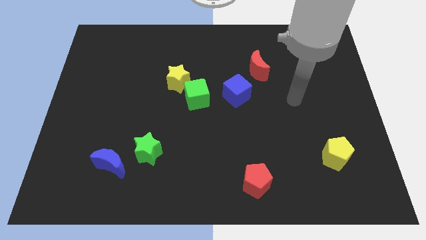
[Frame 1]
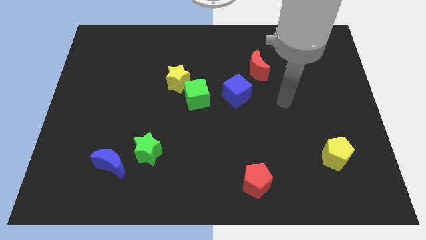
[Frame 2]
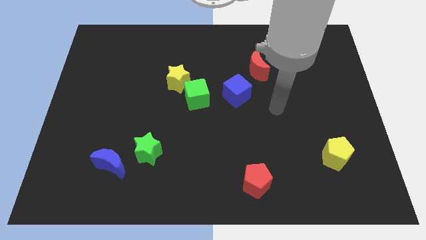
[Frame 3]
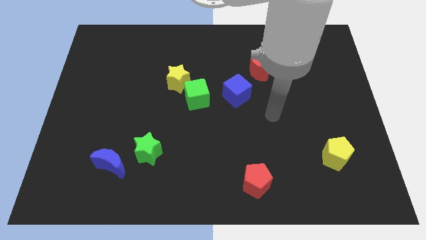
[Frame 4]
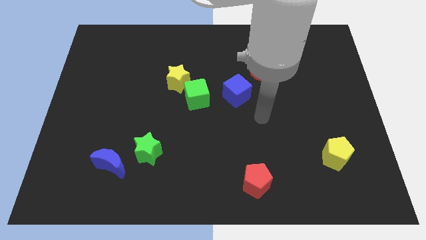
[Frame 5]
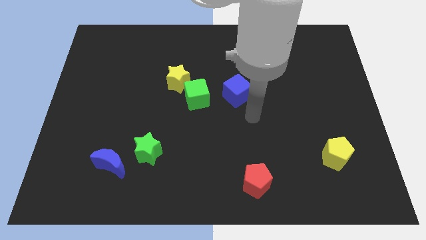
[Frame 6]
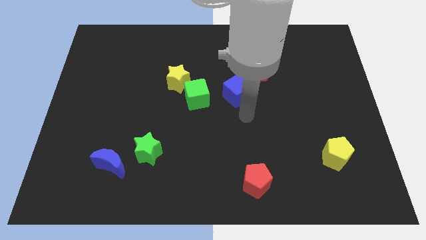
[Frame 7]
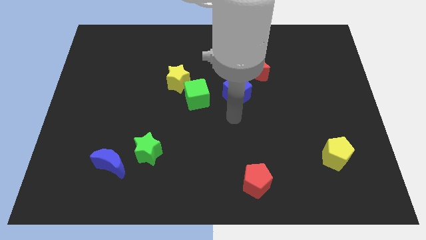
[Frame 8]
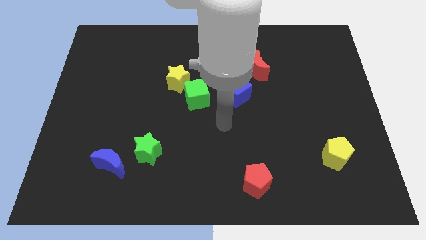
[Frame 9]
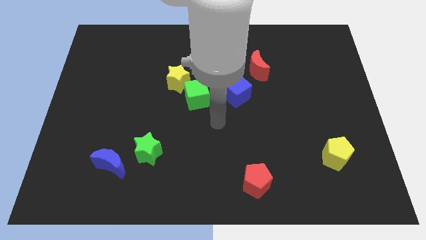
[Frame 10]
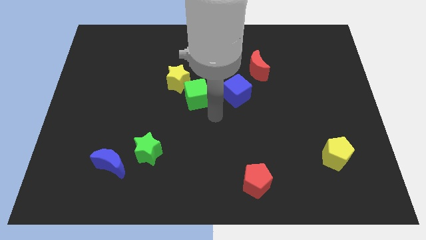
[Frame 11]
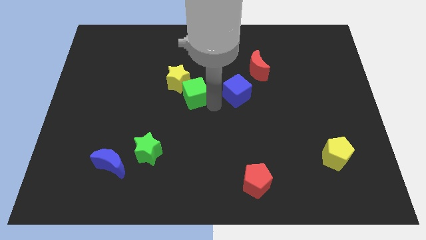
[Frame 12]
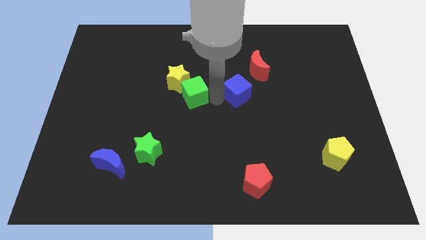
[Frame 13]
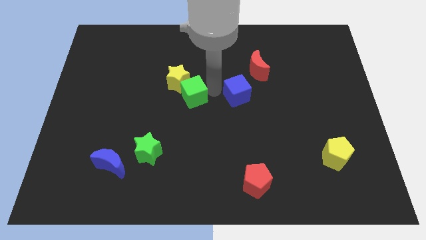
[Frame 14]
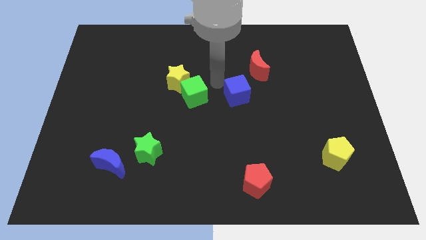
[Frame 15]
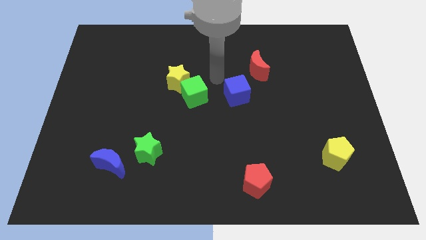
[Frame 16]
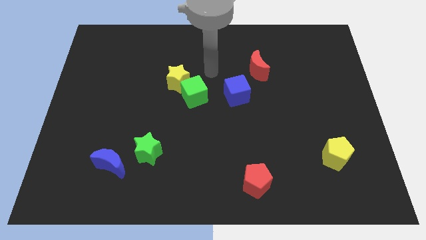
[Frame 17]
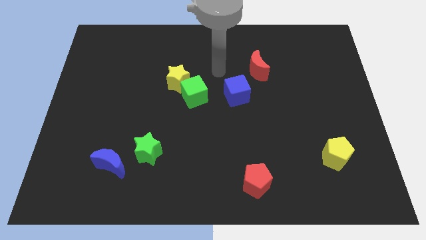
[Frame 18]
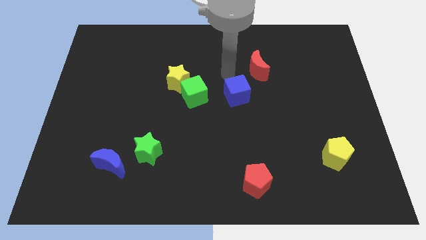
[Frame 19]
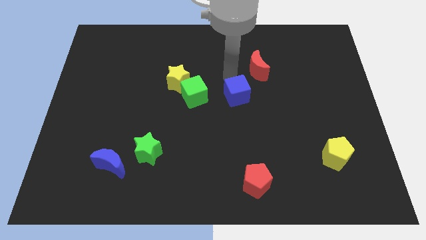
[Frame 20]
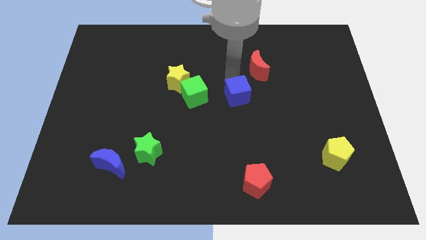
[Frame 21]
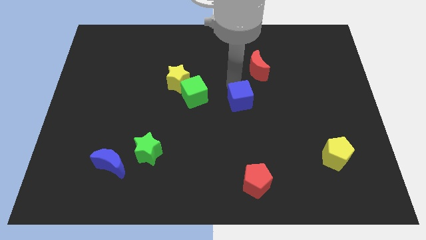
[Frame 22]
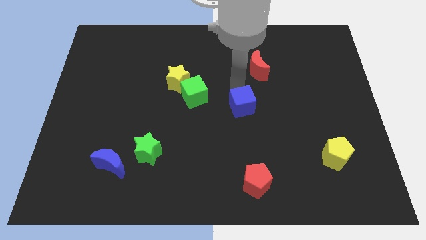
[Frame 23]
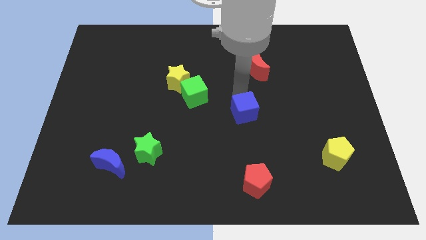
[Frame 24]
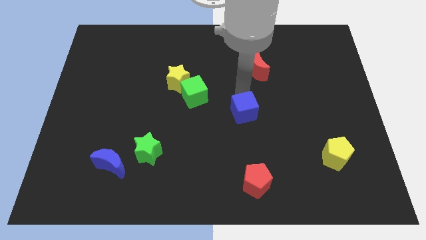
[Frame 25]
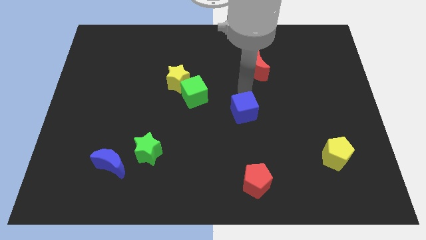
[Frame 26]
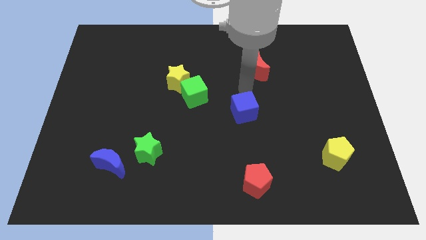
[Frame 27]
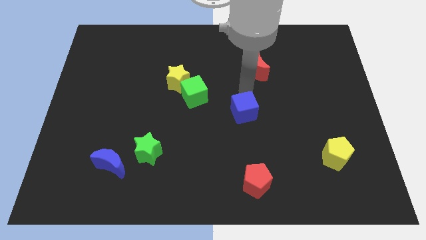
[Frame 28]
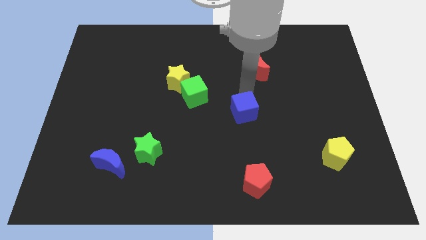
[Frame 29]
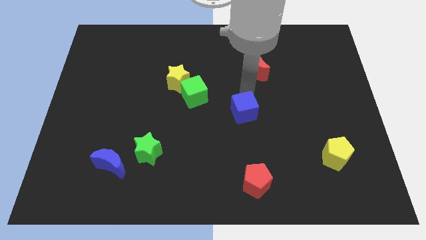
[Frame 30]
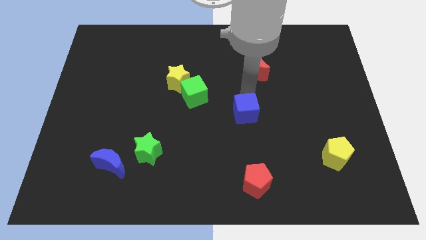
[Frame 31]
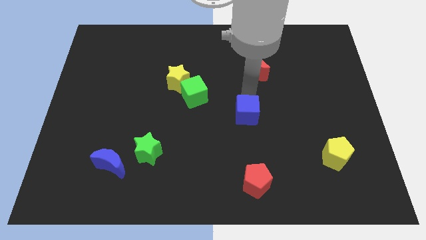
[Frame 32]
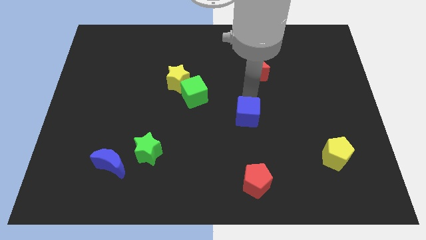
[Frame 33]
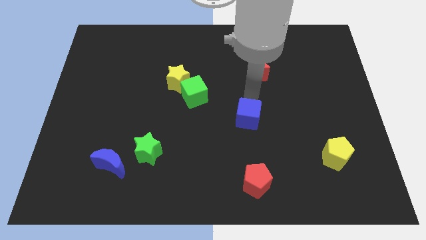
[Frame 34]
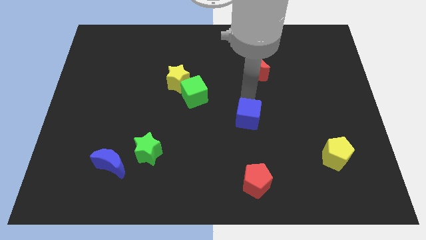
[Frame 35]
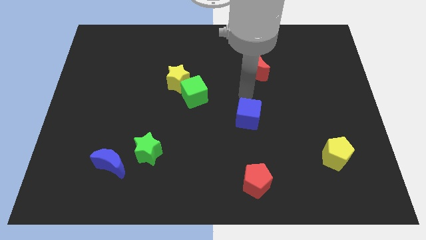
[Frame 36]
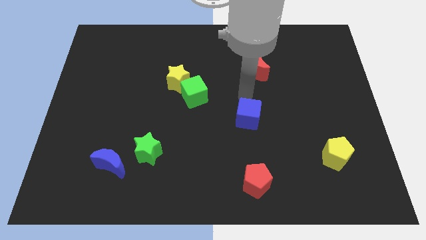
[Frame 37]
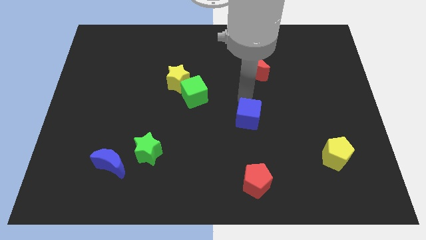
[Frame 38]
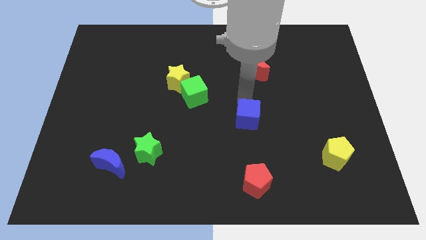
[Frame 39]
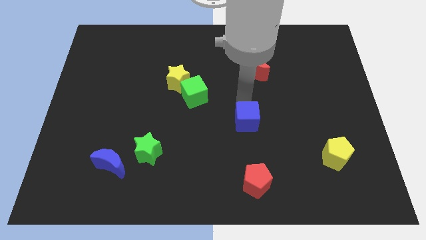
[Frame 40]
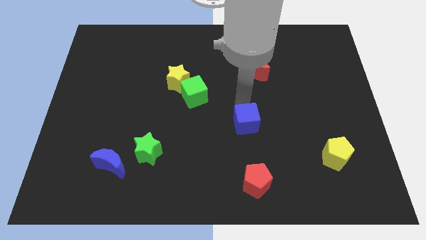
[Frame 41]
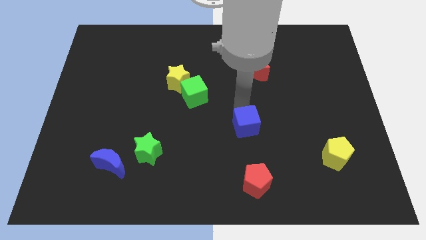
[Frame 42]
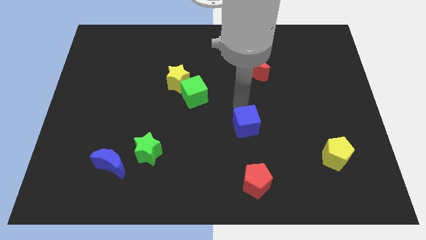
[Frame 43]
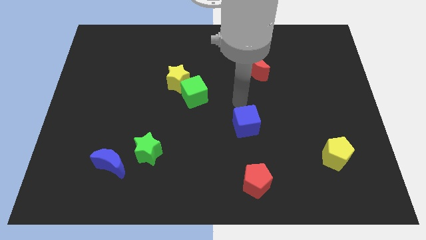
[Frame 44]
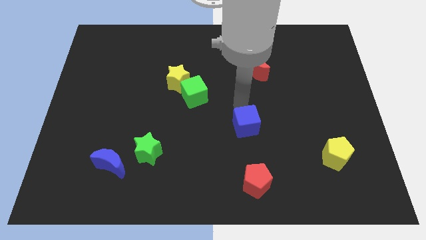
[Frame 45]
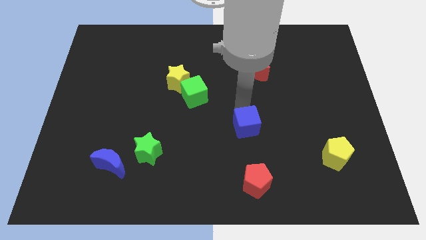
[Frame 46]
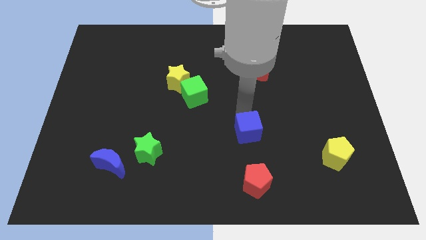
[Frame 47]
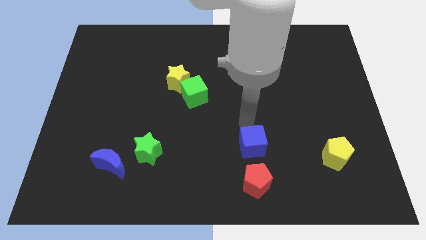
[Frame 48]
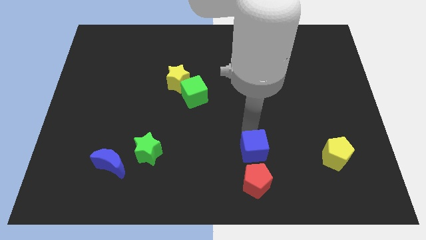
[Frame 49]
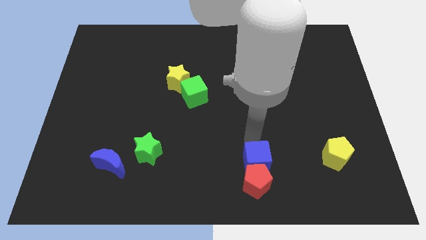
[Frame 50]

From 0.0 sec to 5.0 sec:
put the blue cube next to the red pentagon

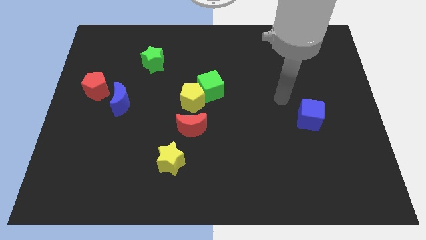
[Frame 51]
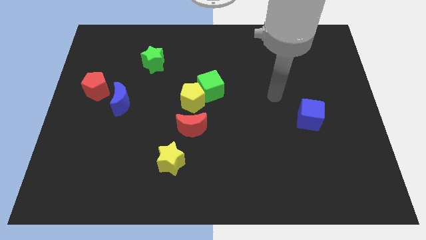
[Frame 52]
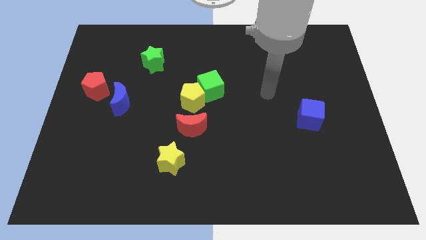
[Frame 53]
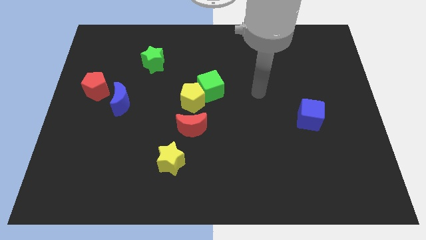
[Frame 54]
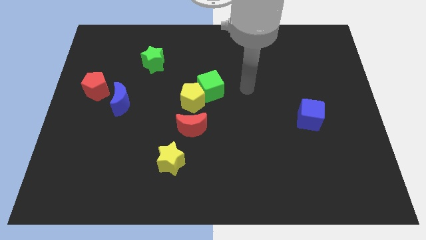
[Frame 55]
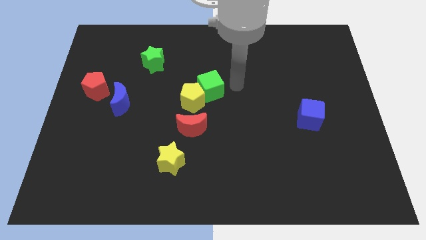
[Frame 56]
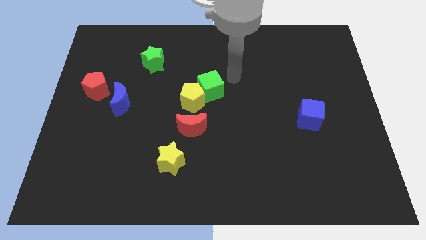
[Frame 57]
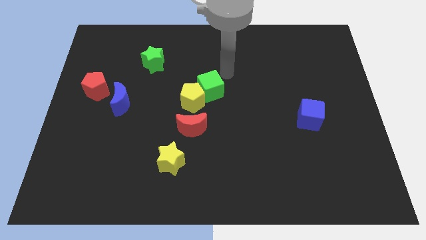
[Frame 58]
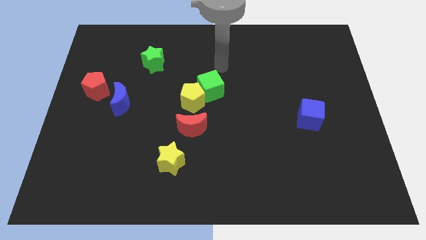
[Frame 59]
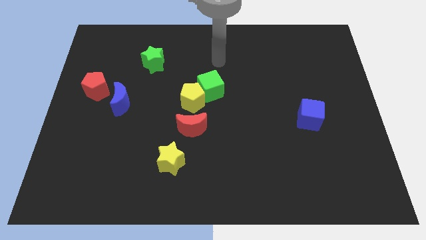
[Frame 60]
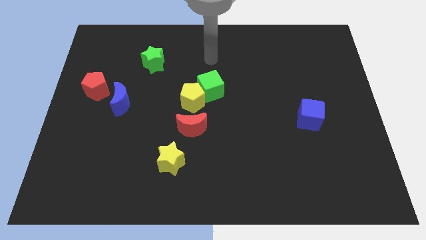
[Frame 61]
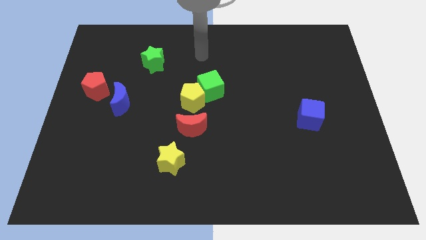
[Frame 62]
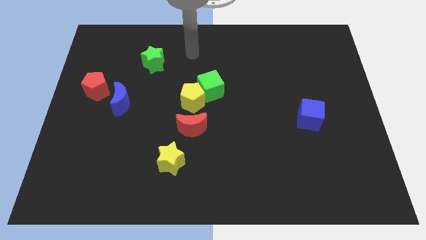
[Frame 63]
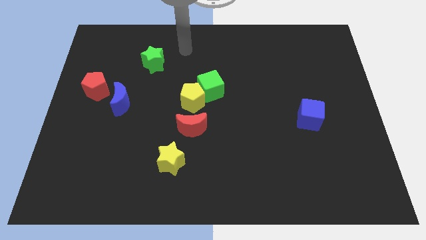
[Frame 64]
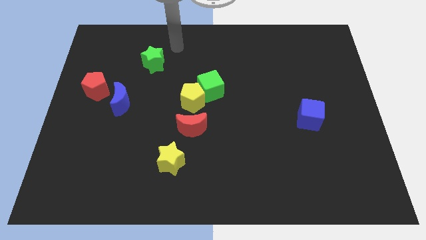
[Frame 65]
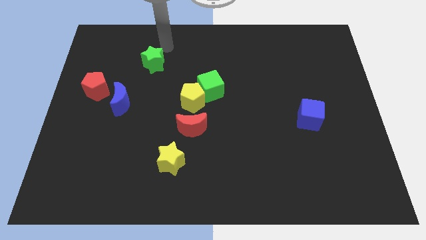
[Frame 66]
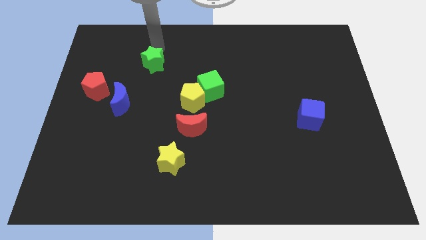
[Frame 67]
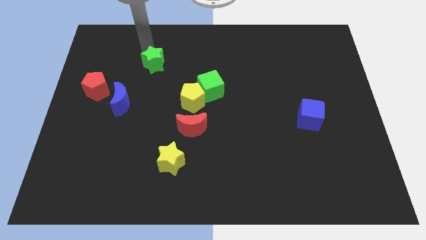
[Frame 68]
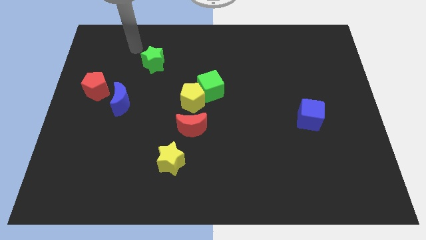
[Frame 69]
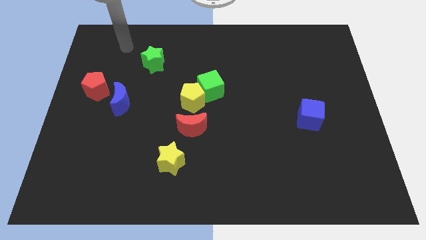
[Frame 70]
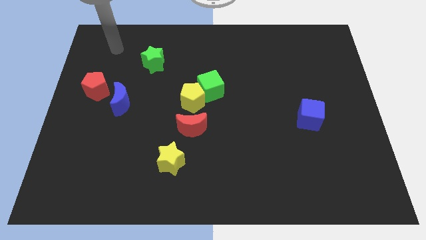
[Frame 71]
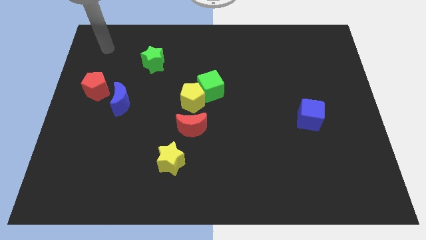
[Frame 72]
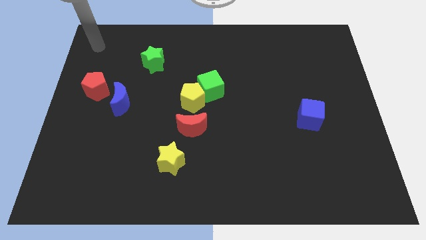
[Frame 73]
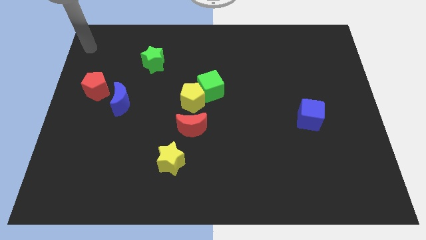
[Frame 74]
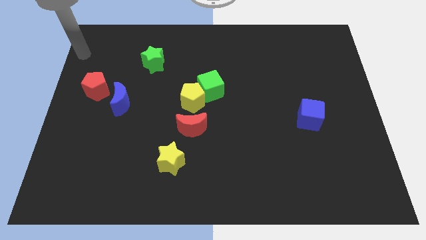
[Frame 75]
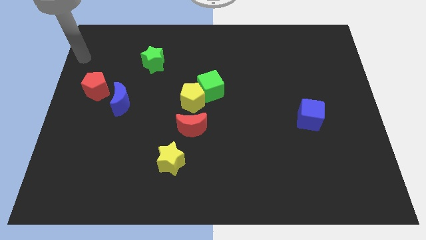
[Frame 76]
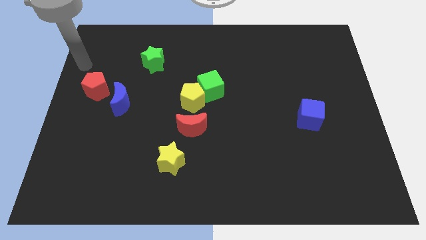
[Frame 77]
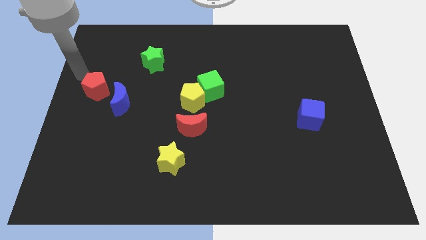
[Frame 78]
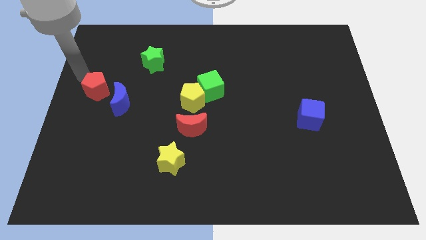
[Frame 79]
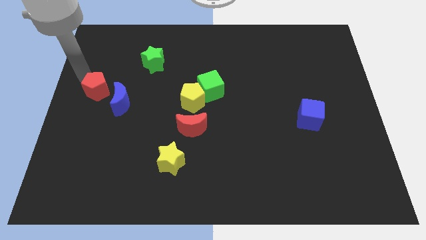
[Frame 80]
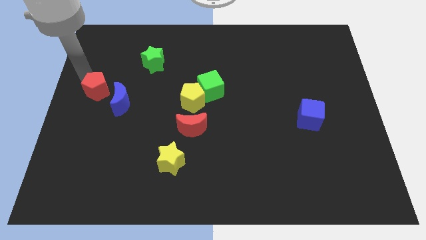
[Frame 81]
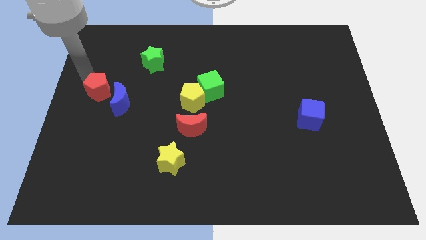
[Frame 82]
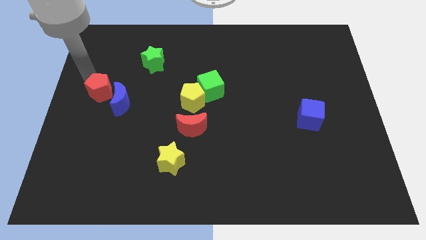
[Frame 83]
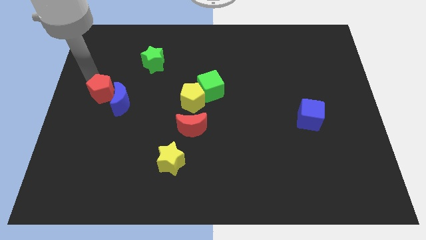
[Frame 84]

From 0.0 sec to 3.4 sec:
slide the red pentagon to the blue moon
